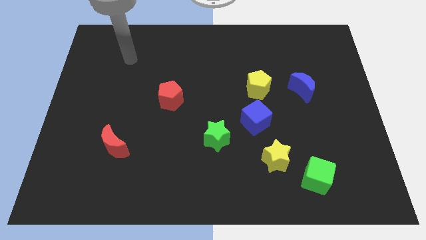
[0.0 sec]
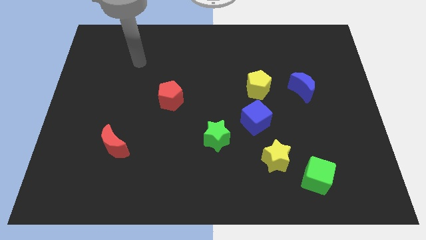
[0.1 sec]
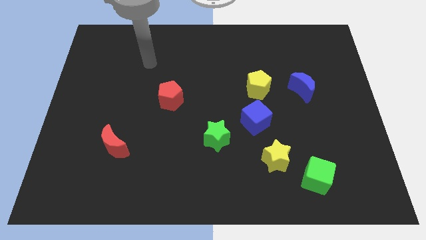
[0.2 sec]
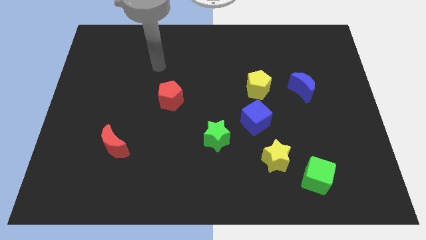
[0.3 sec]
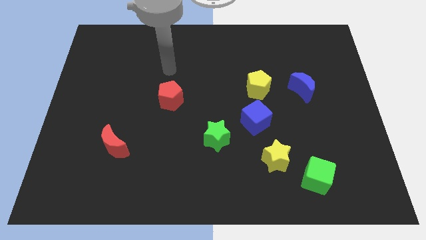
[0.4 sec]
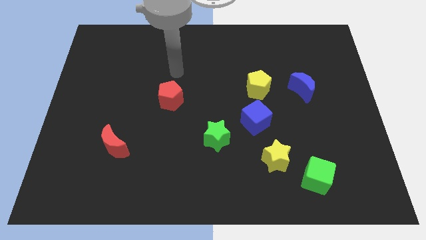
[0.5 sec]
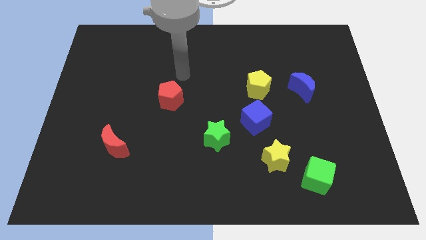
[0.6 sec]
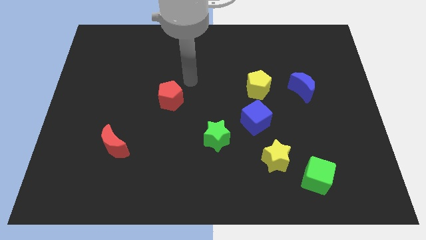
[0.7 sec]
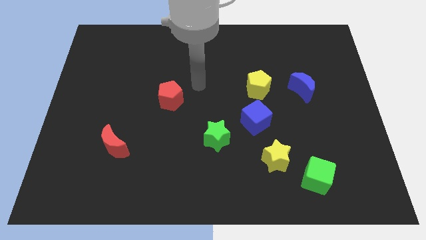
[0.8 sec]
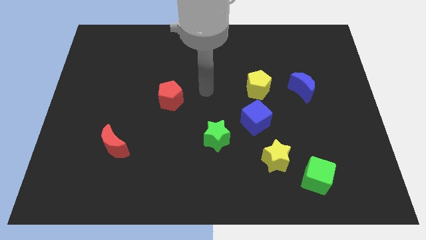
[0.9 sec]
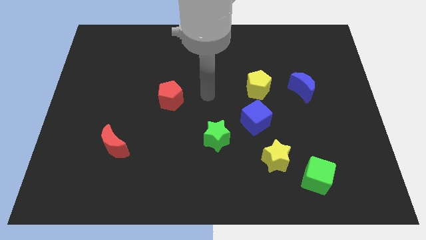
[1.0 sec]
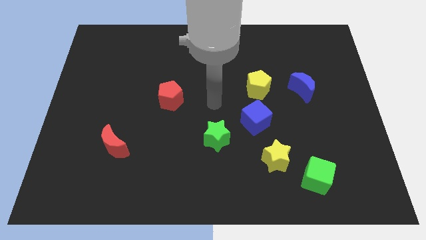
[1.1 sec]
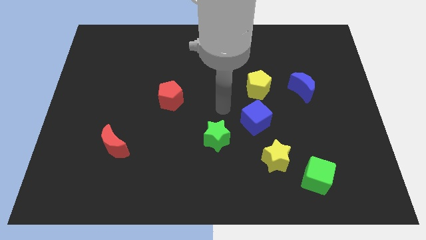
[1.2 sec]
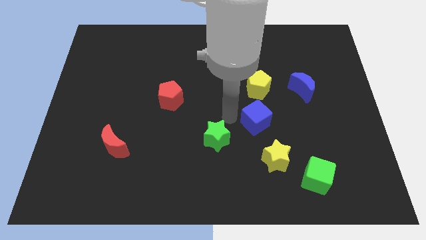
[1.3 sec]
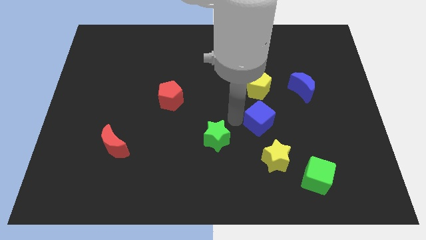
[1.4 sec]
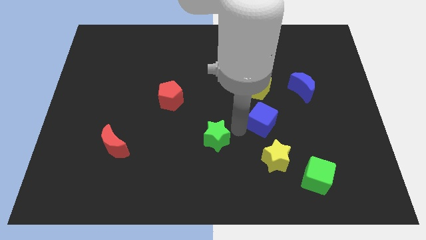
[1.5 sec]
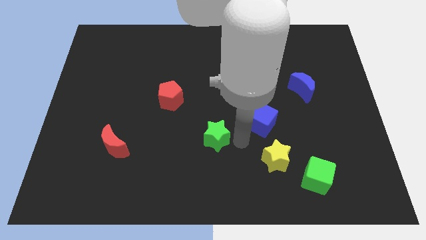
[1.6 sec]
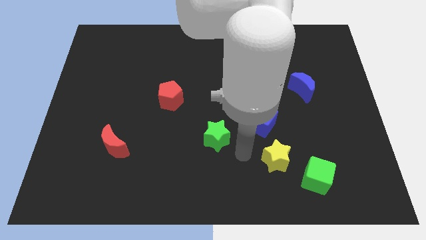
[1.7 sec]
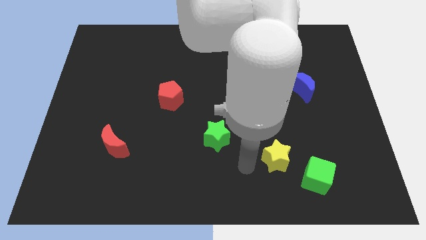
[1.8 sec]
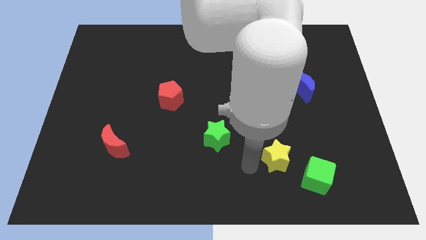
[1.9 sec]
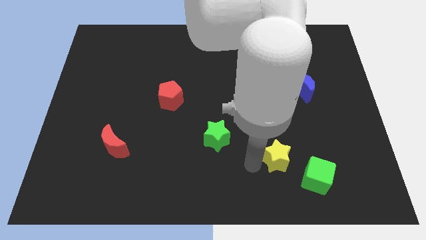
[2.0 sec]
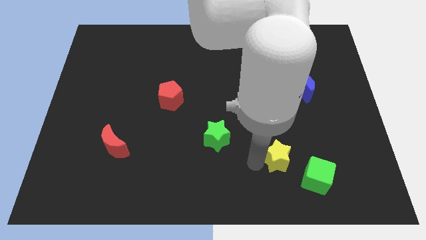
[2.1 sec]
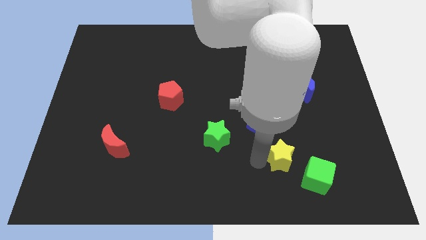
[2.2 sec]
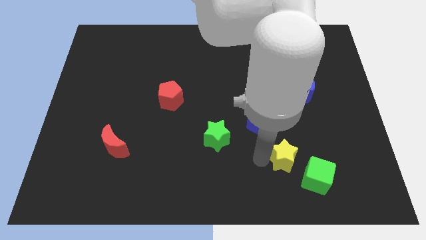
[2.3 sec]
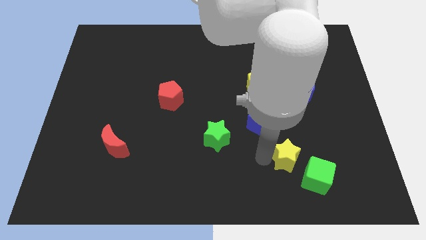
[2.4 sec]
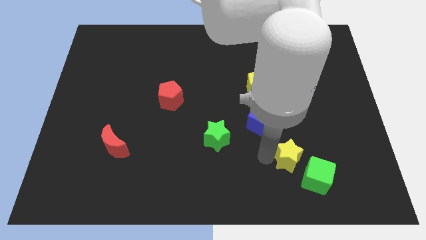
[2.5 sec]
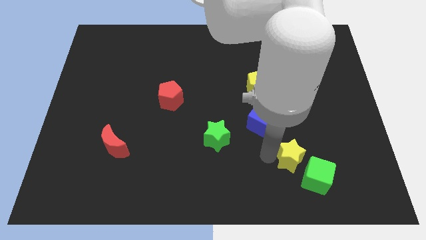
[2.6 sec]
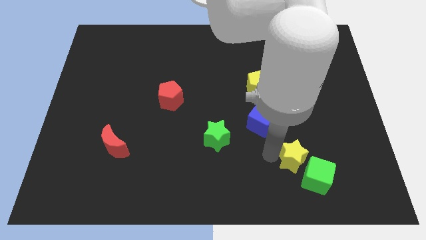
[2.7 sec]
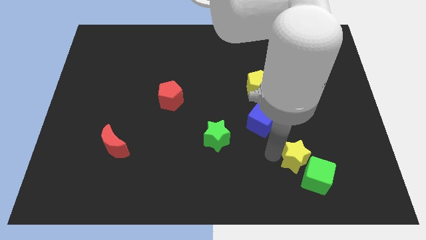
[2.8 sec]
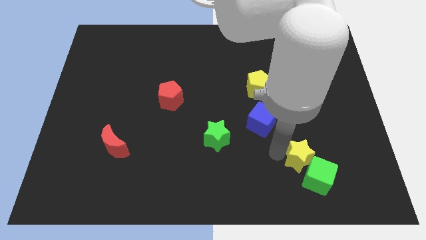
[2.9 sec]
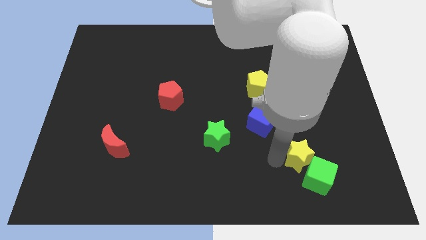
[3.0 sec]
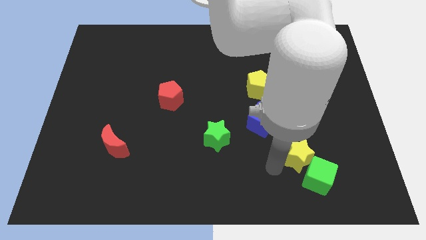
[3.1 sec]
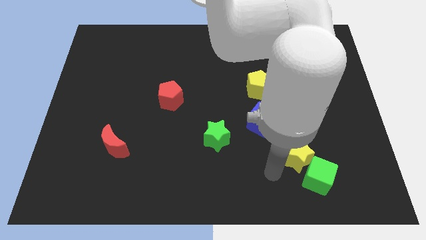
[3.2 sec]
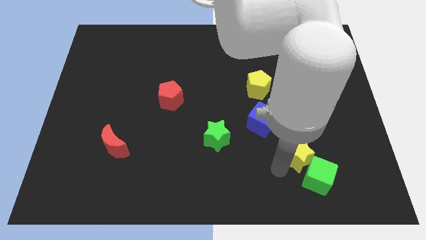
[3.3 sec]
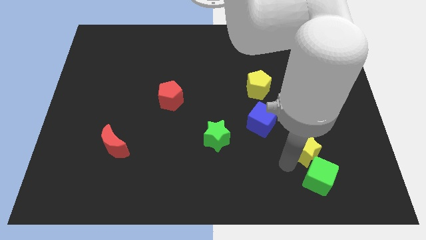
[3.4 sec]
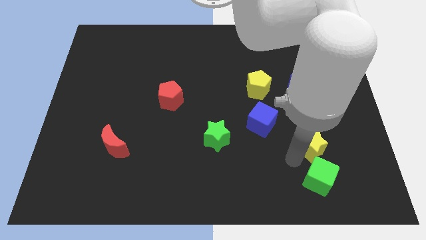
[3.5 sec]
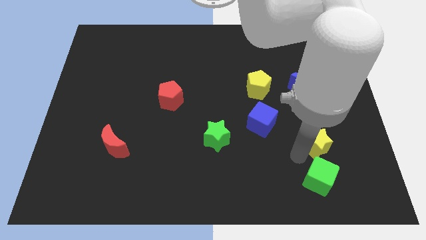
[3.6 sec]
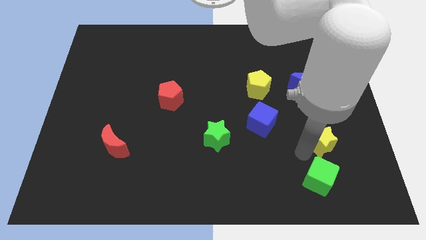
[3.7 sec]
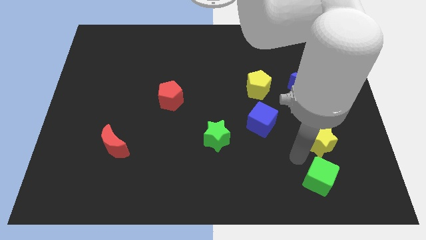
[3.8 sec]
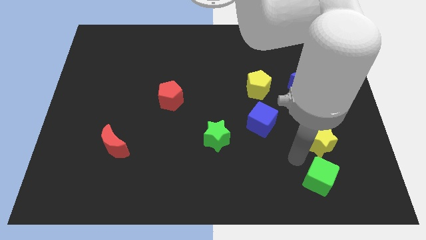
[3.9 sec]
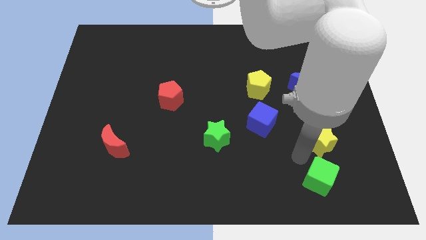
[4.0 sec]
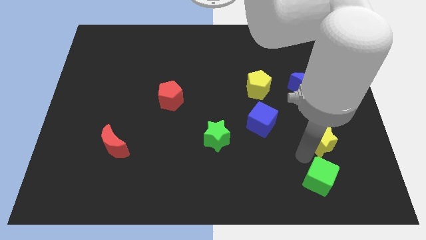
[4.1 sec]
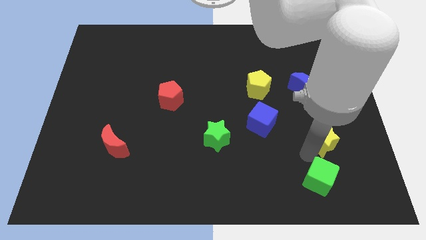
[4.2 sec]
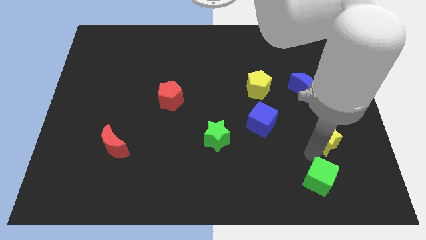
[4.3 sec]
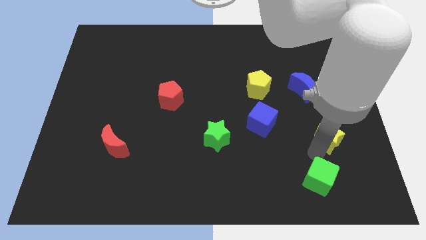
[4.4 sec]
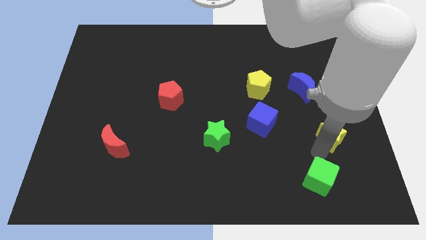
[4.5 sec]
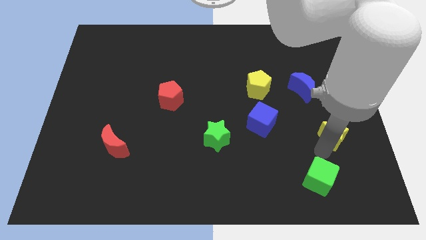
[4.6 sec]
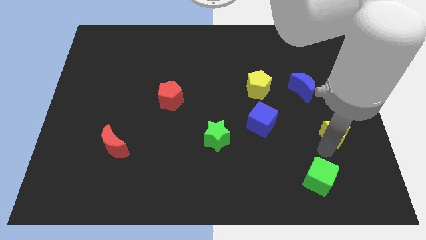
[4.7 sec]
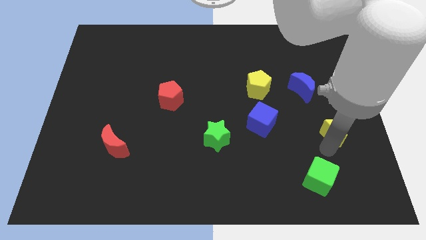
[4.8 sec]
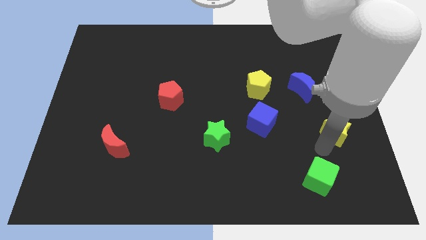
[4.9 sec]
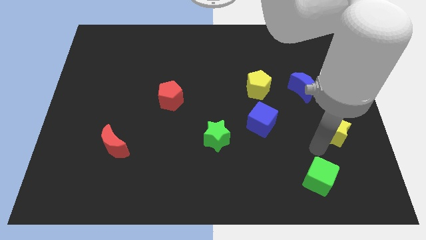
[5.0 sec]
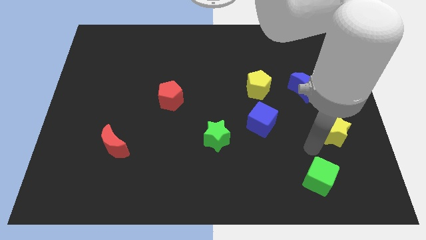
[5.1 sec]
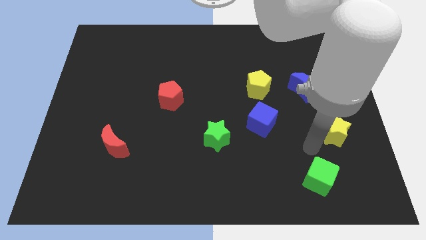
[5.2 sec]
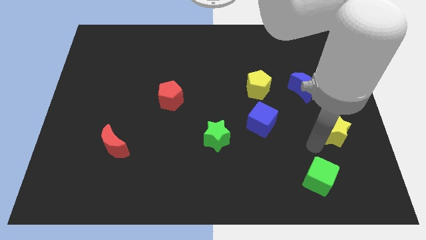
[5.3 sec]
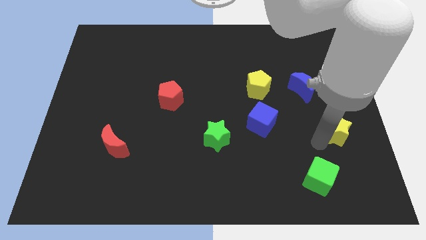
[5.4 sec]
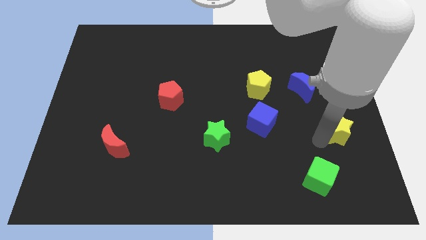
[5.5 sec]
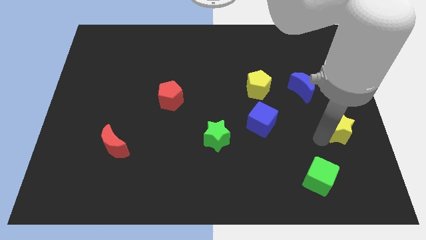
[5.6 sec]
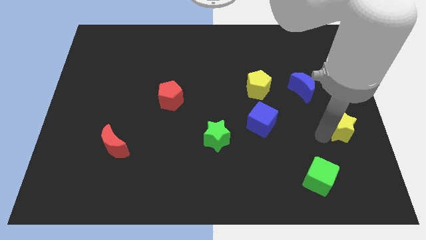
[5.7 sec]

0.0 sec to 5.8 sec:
put the yellow star to the right side

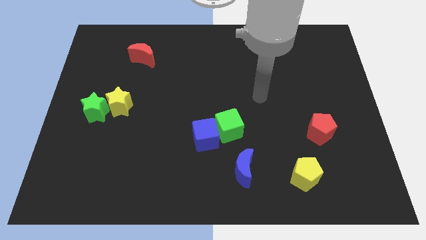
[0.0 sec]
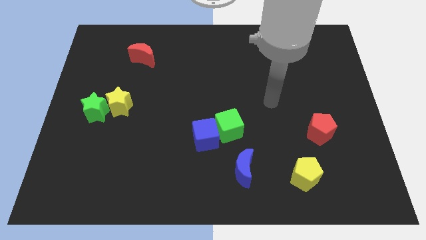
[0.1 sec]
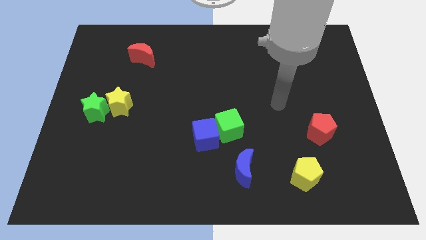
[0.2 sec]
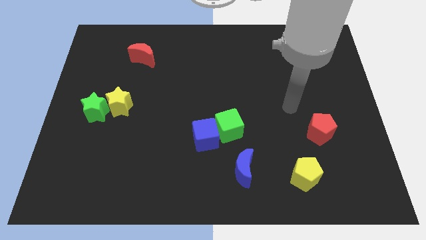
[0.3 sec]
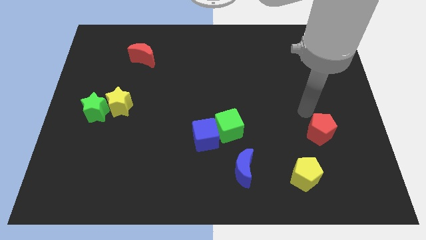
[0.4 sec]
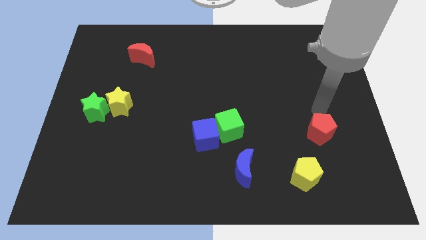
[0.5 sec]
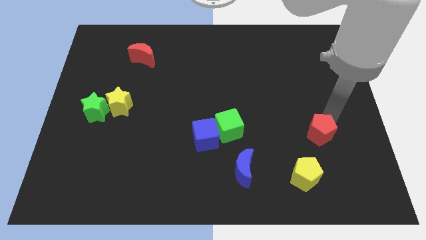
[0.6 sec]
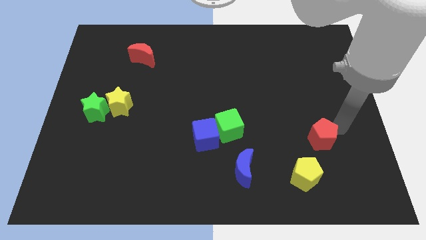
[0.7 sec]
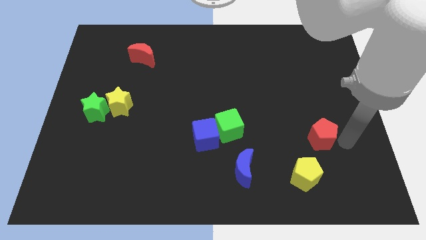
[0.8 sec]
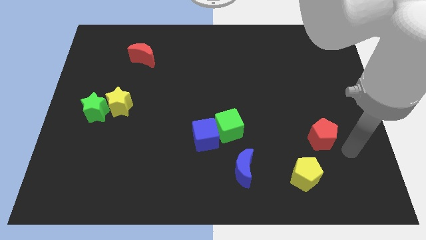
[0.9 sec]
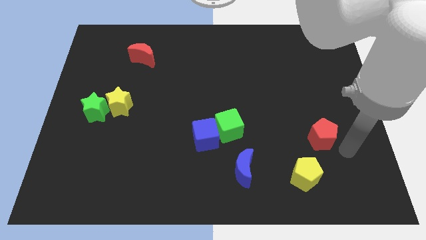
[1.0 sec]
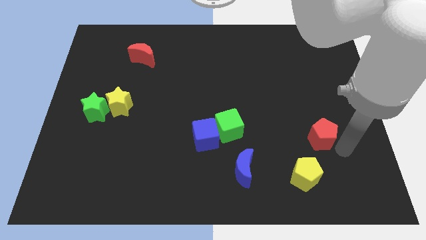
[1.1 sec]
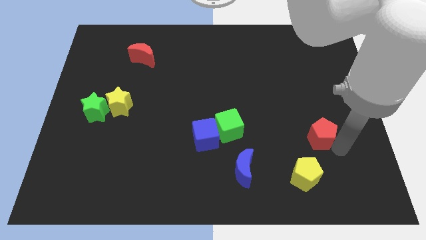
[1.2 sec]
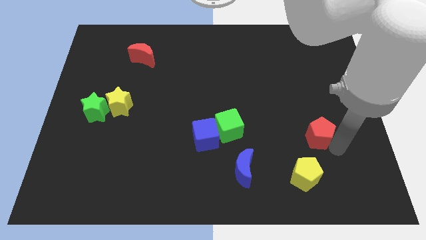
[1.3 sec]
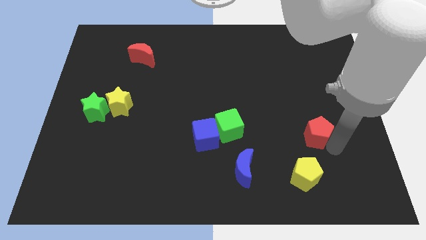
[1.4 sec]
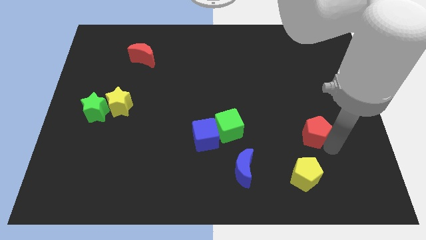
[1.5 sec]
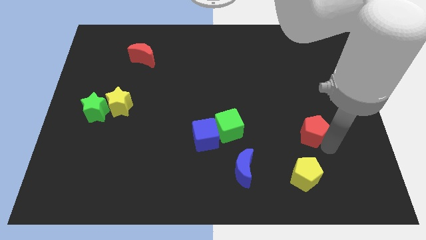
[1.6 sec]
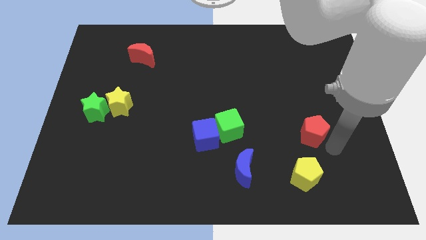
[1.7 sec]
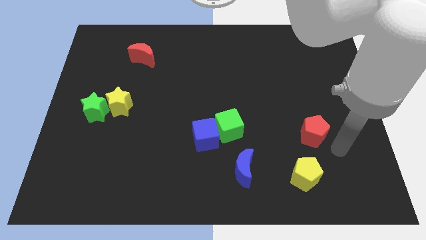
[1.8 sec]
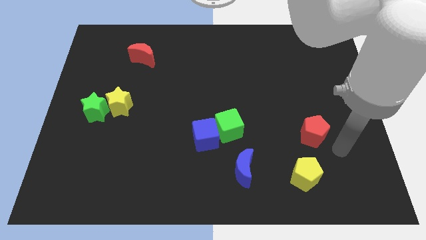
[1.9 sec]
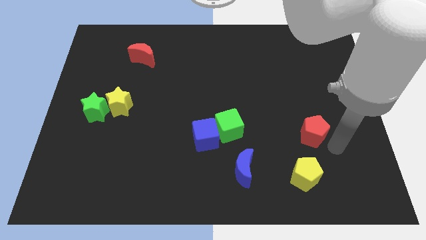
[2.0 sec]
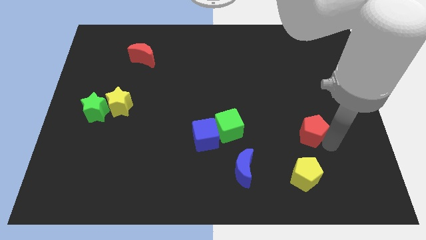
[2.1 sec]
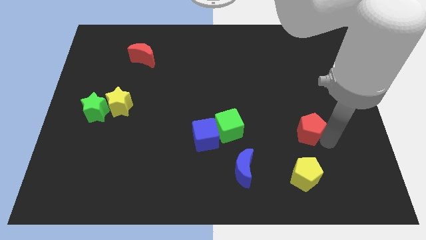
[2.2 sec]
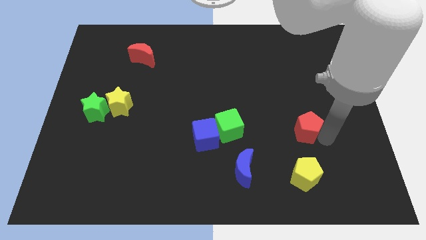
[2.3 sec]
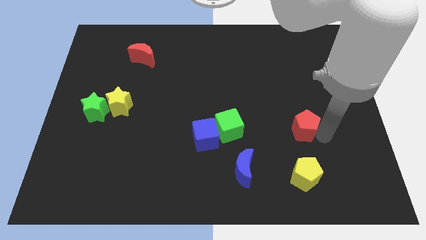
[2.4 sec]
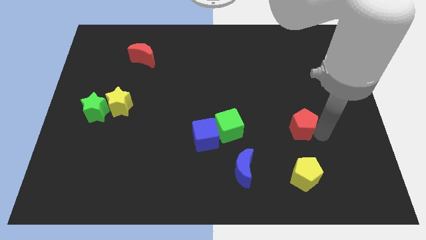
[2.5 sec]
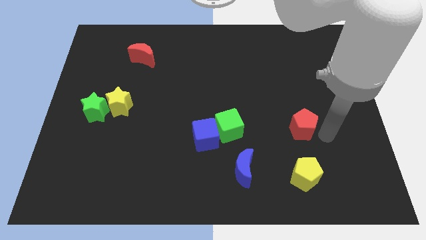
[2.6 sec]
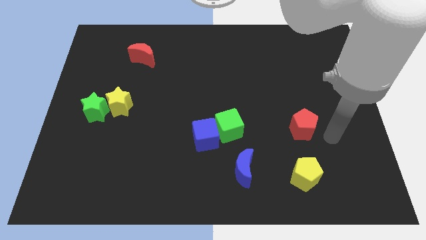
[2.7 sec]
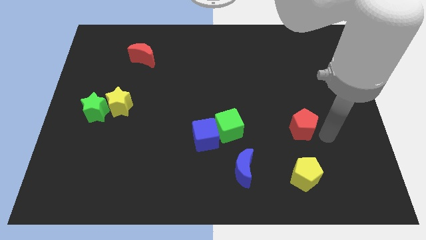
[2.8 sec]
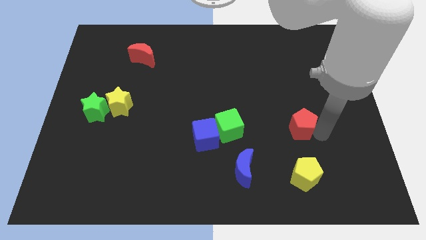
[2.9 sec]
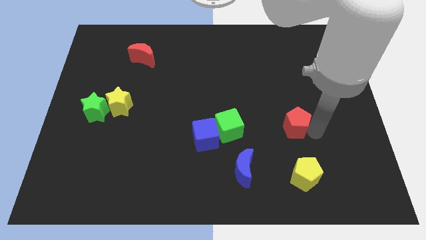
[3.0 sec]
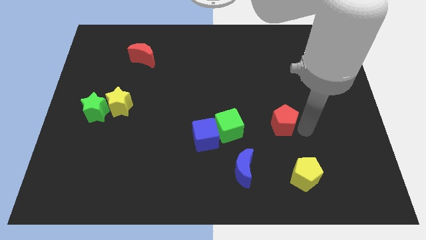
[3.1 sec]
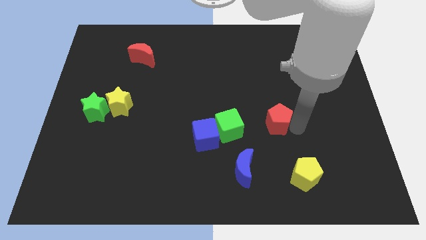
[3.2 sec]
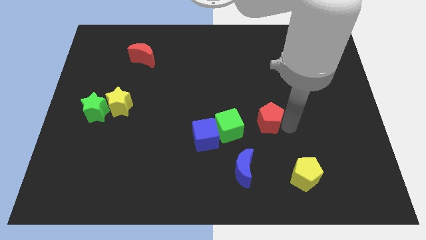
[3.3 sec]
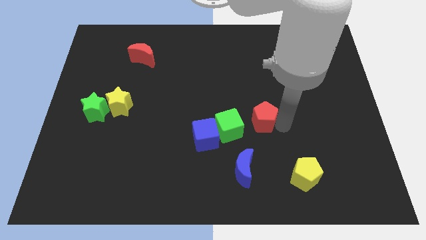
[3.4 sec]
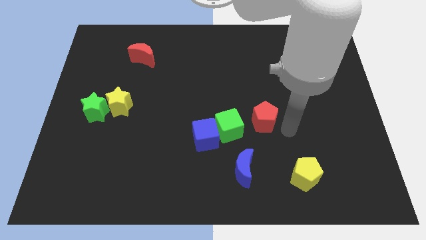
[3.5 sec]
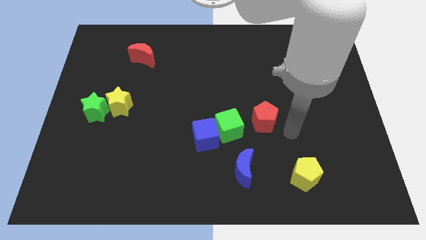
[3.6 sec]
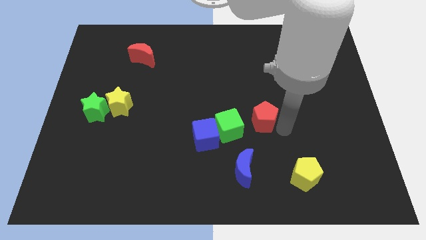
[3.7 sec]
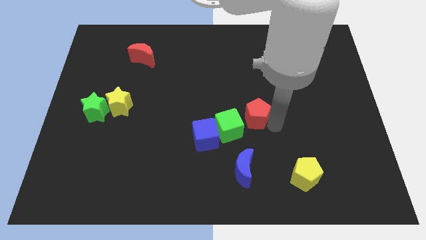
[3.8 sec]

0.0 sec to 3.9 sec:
move the red pentagon to the middle
